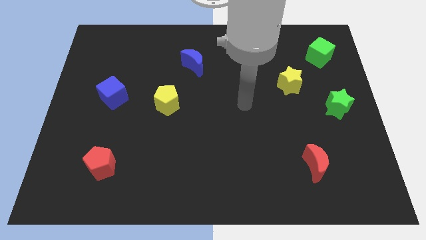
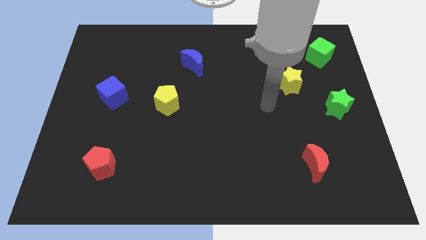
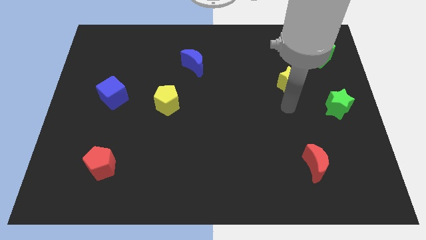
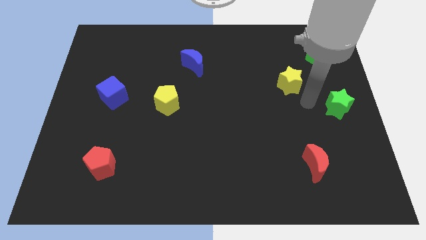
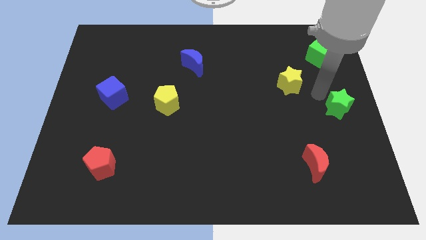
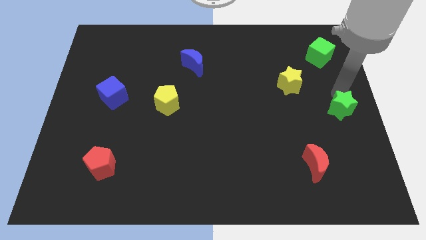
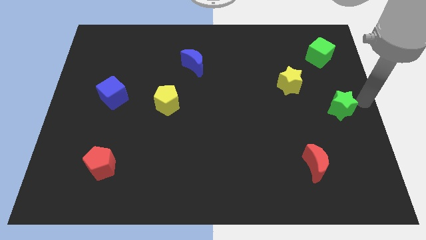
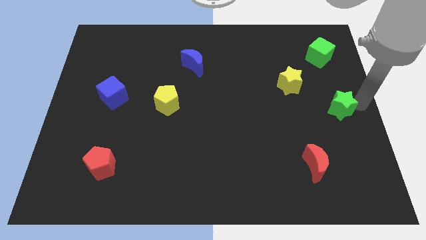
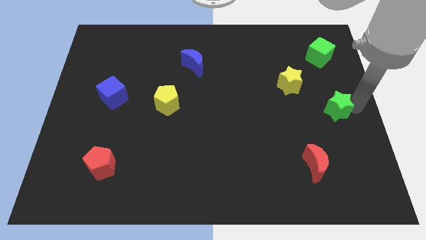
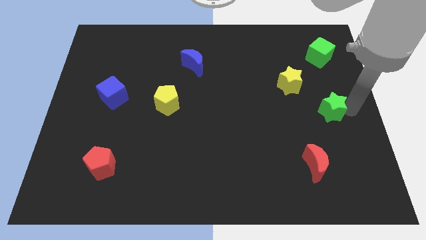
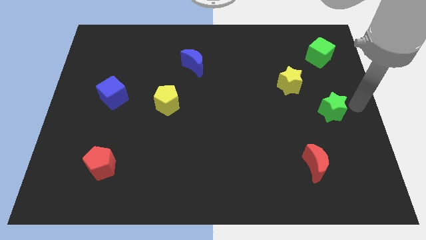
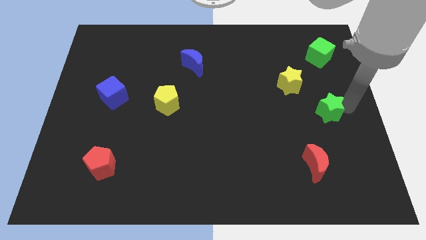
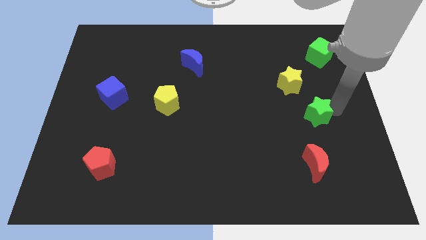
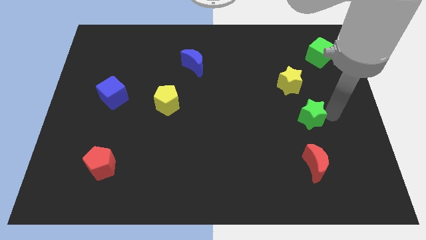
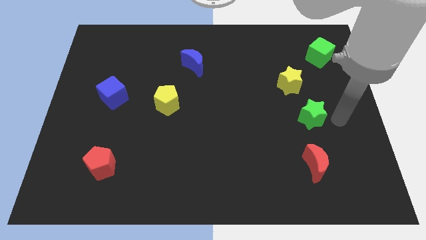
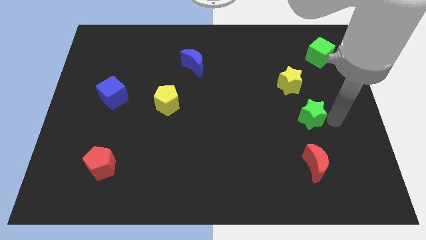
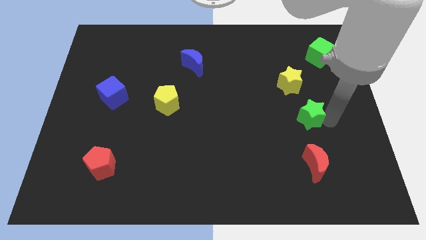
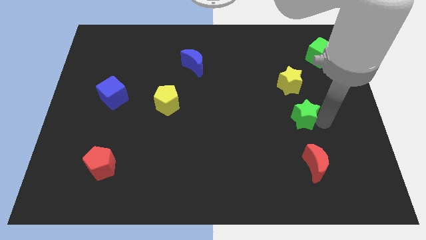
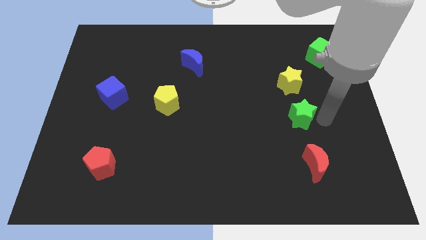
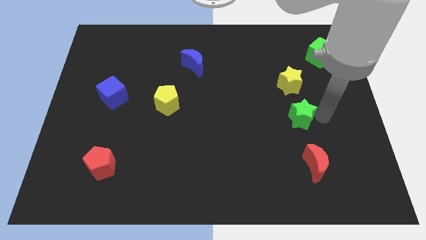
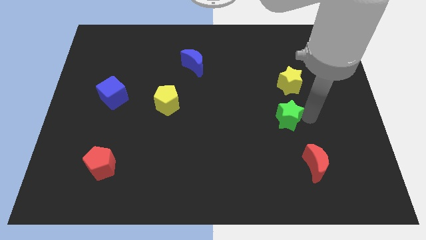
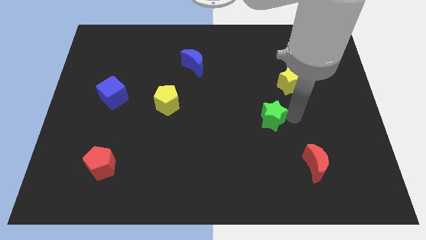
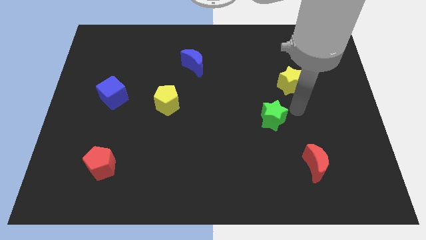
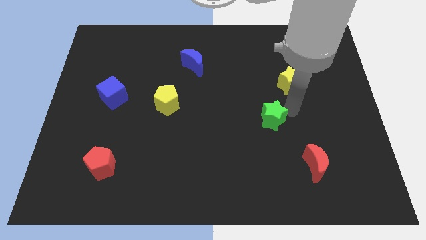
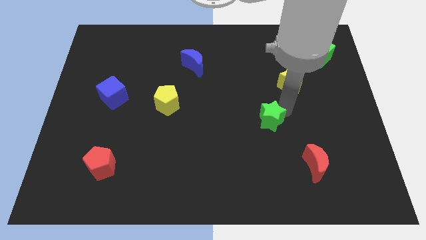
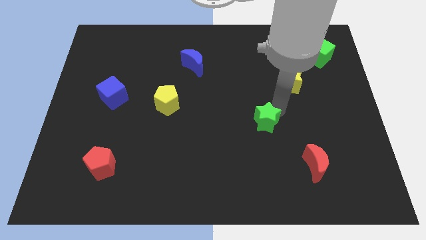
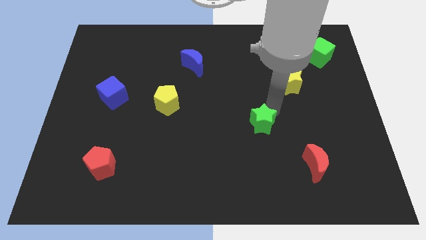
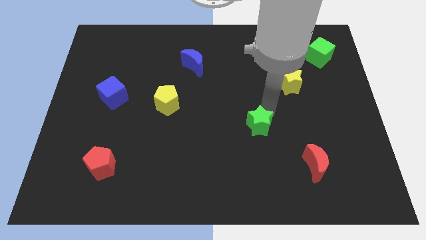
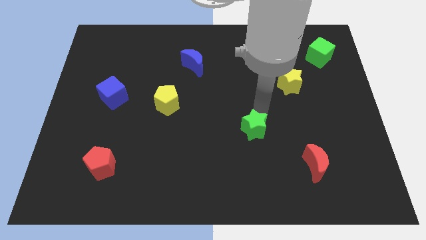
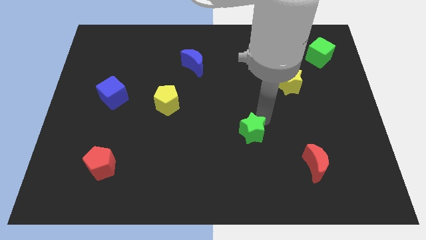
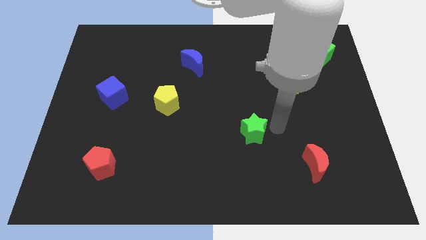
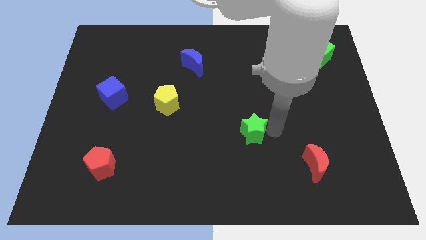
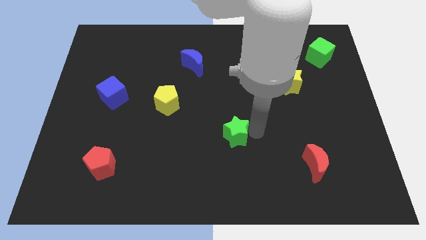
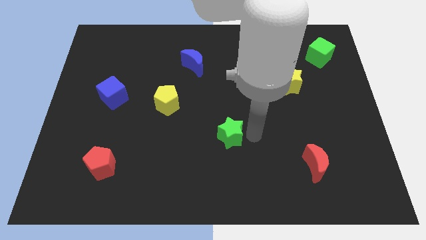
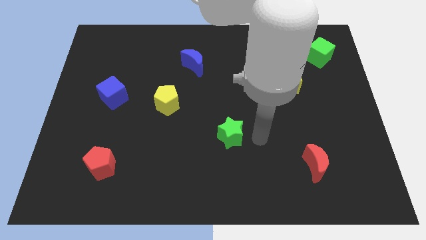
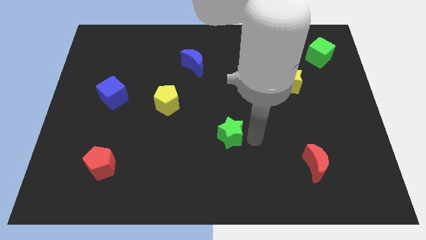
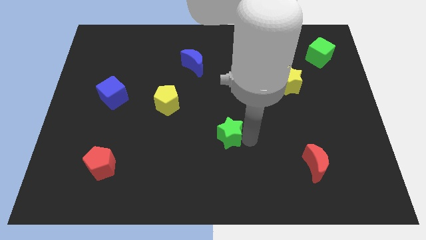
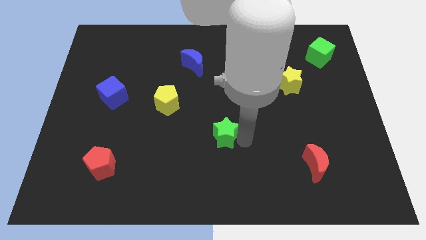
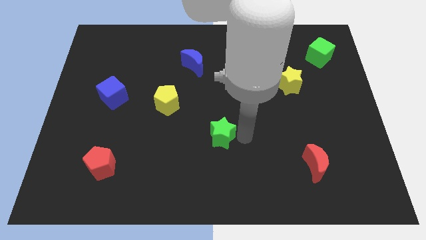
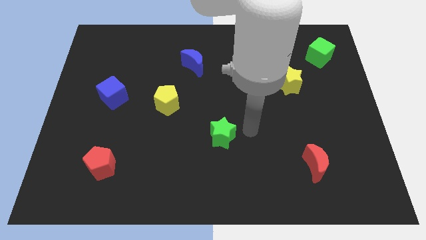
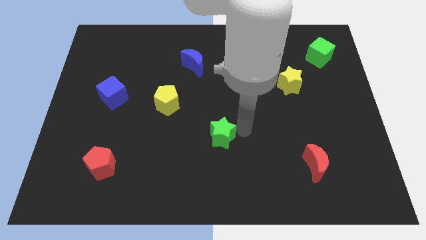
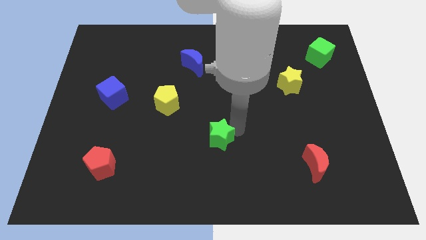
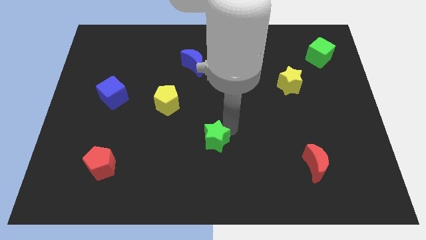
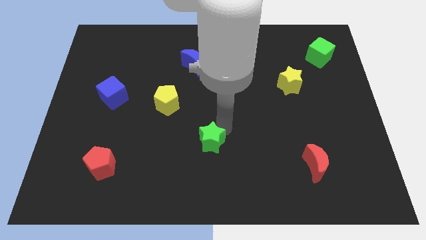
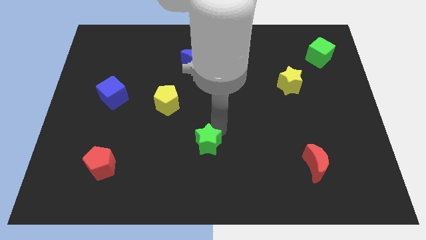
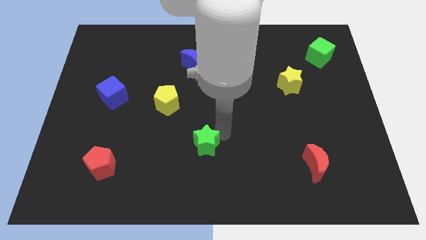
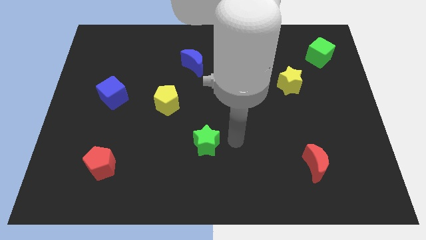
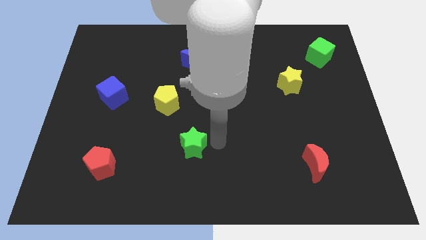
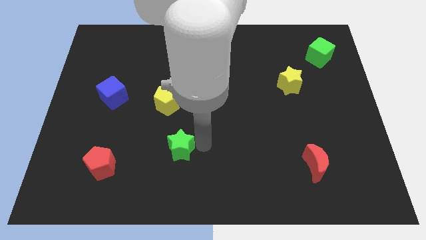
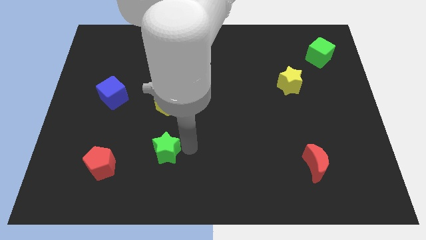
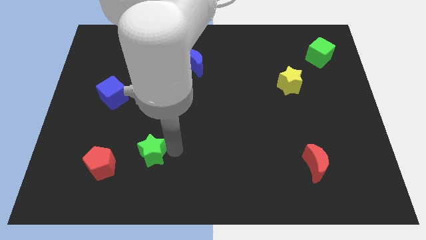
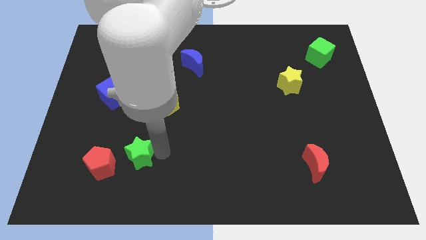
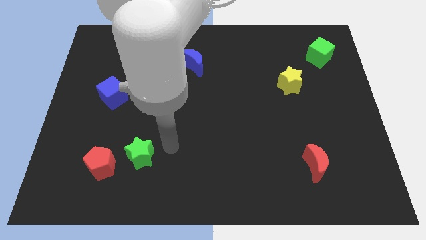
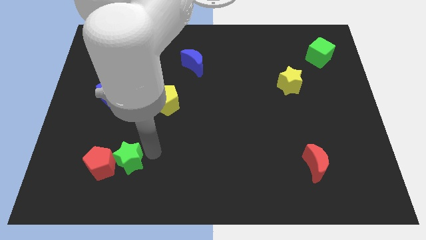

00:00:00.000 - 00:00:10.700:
put the green star next to the red pentagon

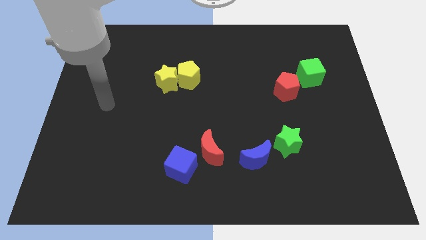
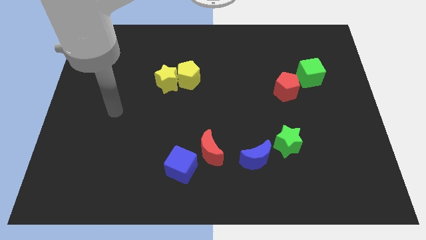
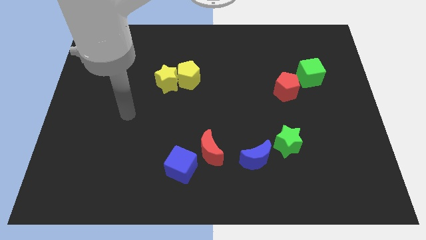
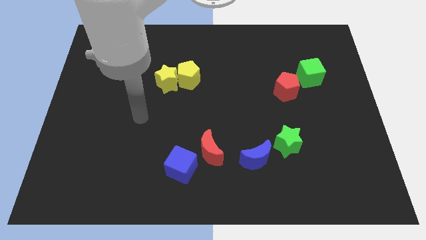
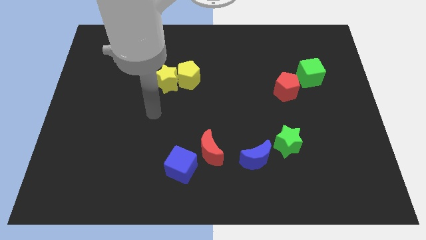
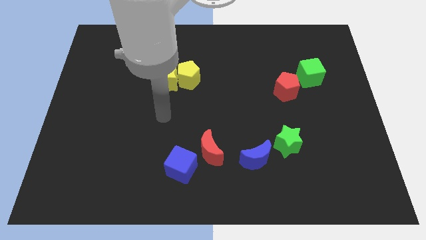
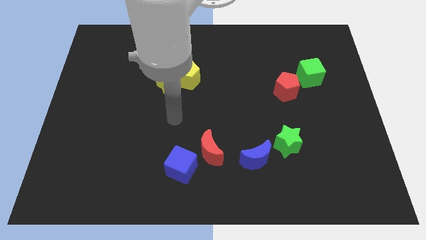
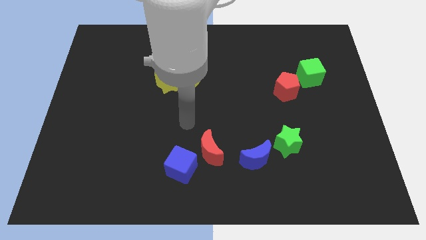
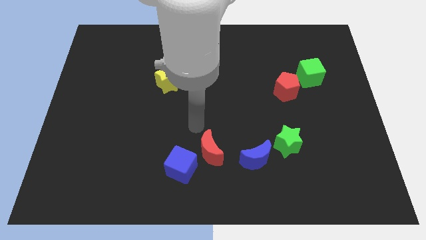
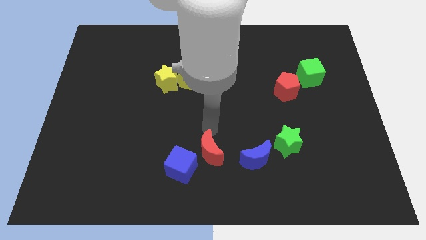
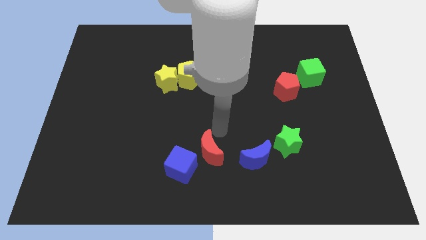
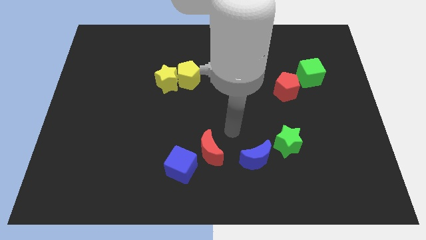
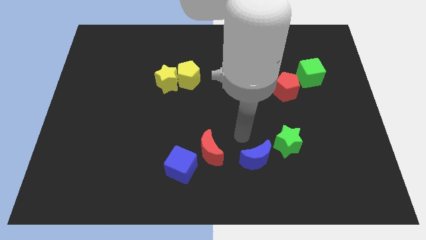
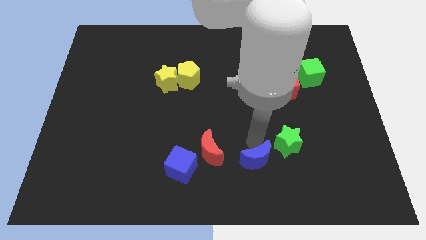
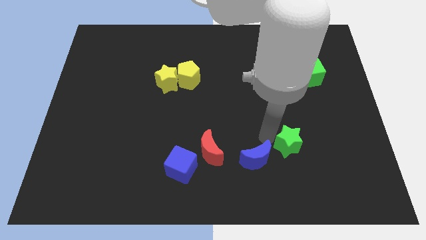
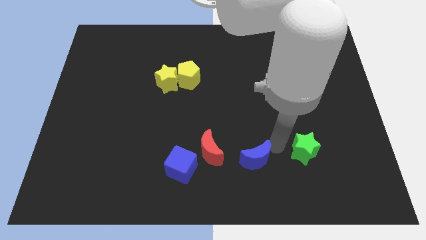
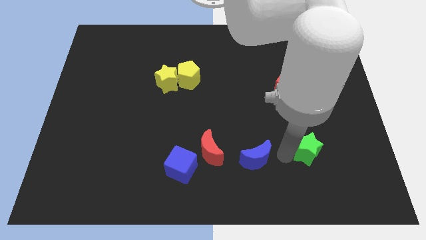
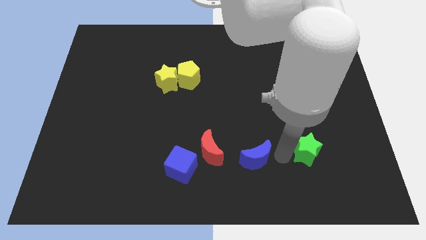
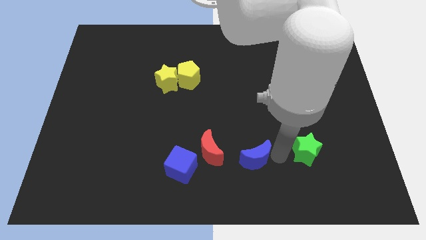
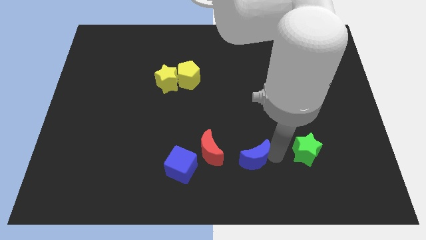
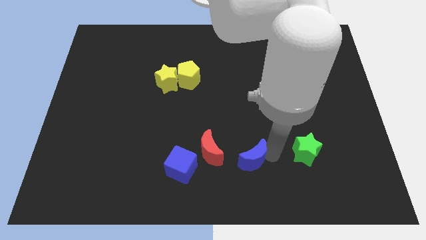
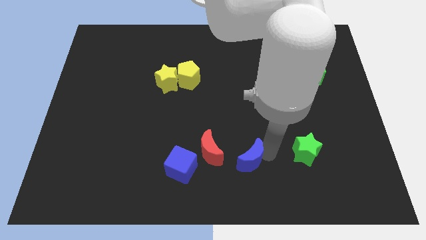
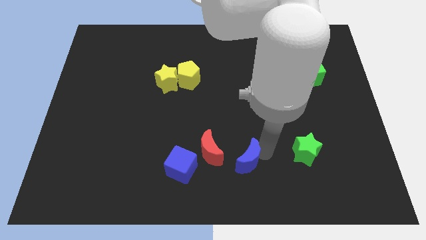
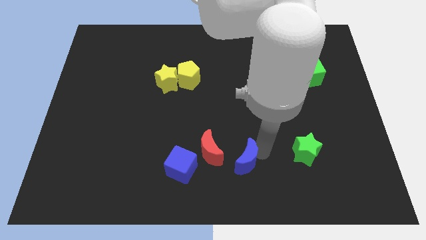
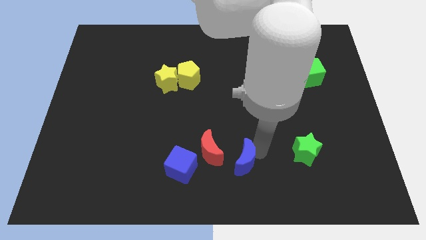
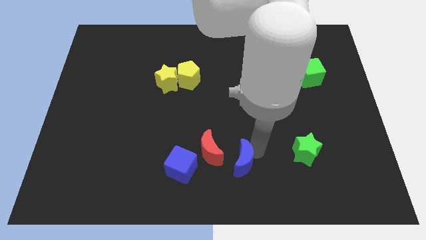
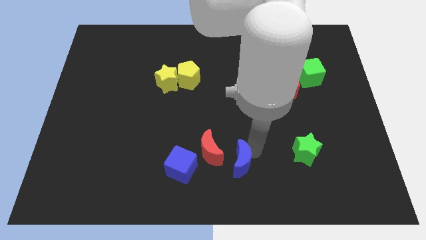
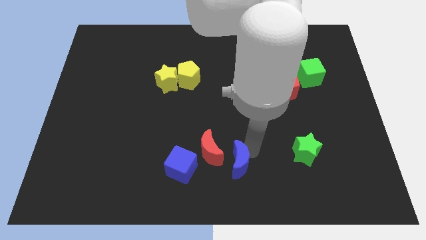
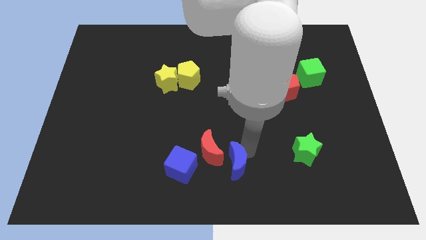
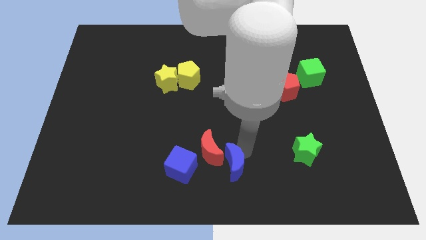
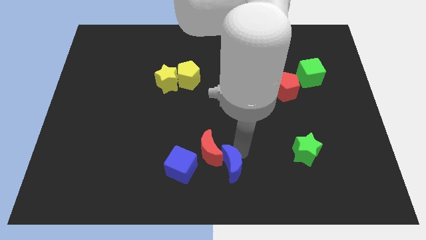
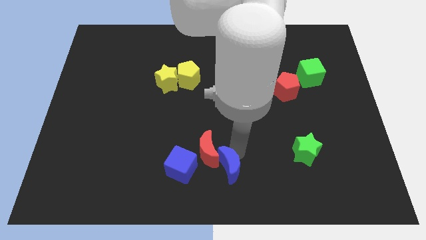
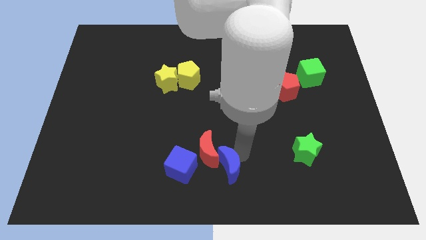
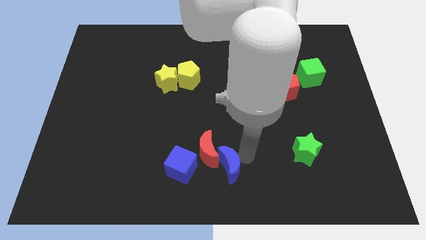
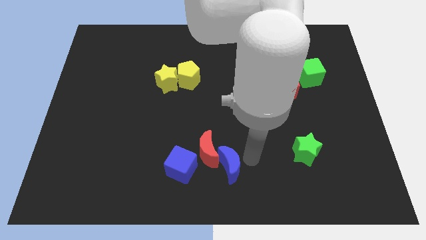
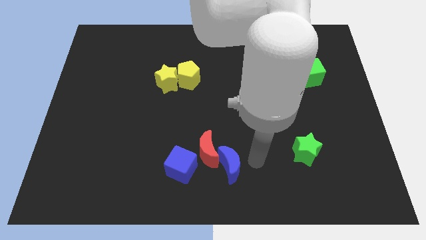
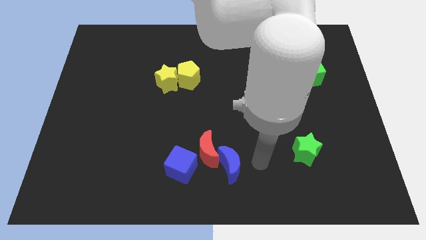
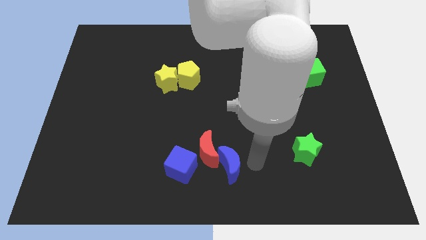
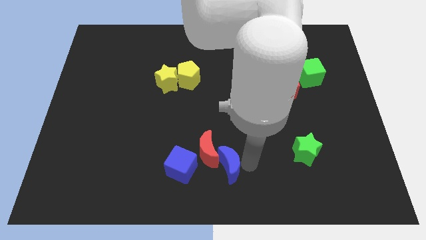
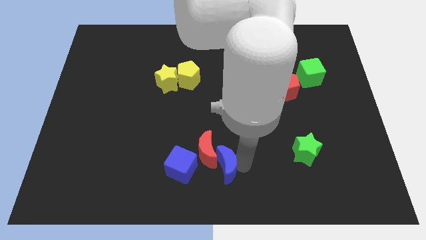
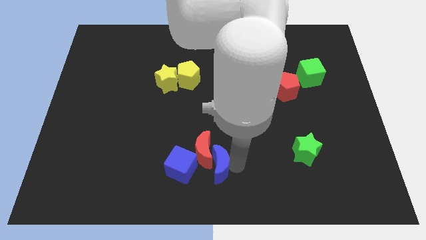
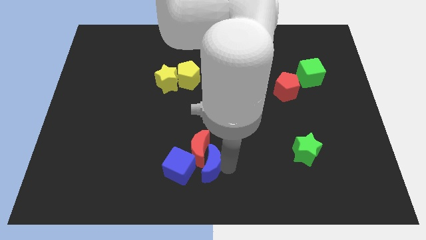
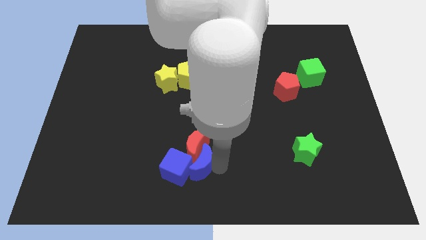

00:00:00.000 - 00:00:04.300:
move the blue moon next to the blue cube
